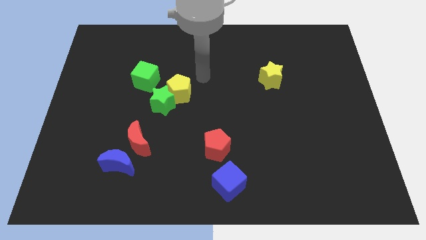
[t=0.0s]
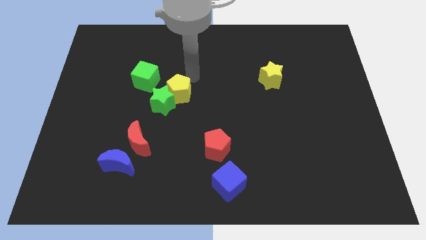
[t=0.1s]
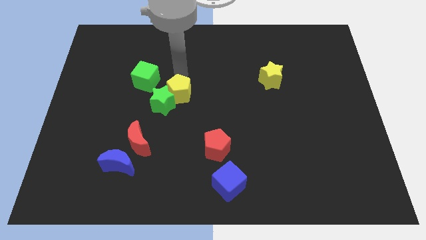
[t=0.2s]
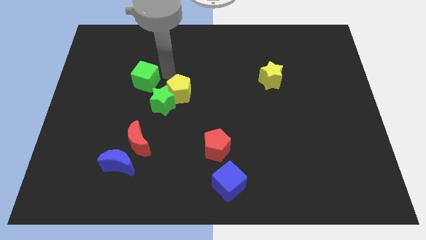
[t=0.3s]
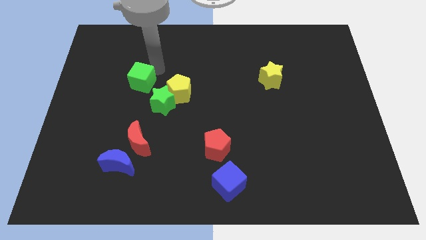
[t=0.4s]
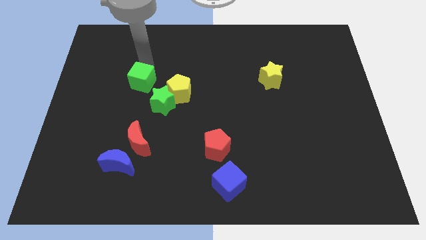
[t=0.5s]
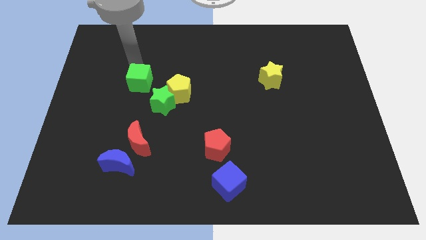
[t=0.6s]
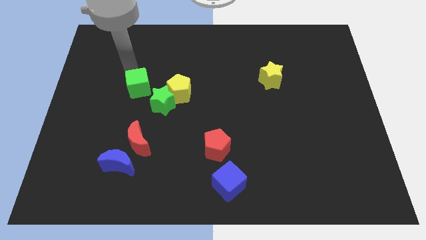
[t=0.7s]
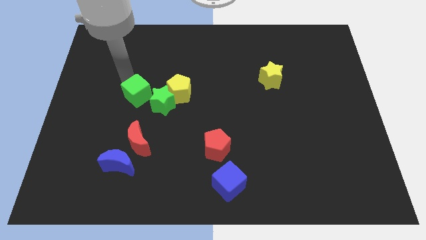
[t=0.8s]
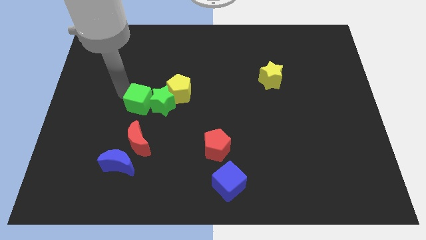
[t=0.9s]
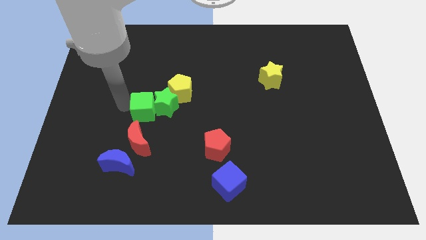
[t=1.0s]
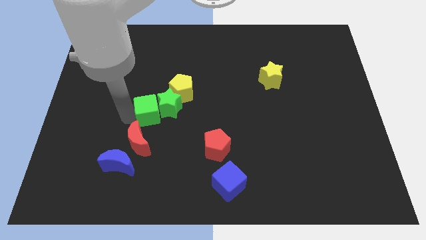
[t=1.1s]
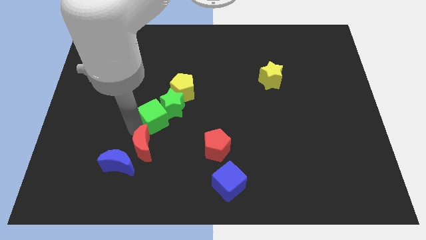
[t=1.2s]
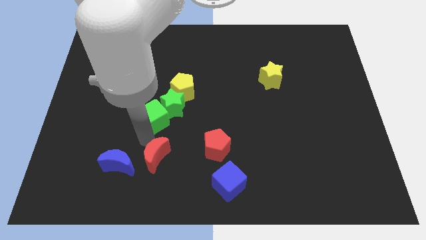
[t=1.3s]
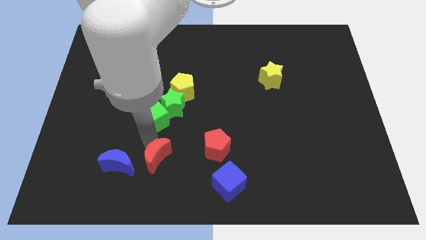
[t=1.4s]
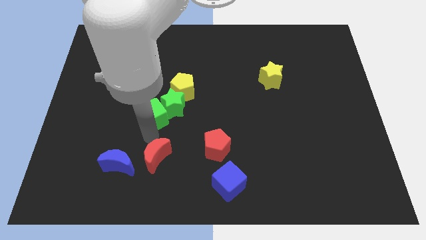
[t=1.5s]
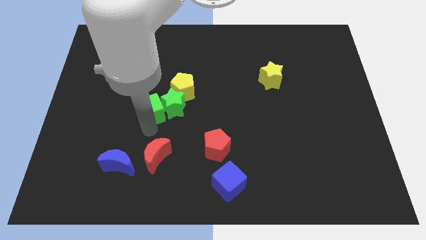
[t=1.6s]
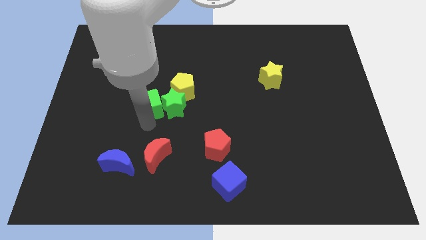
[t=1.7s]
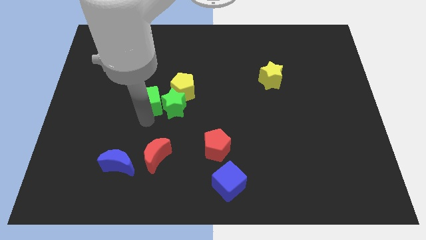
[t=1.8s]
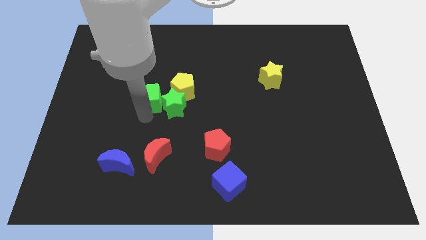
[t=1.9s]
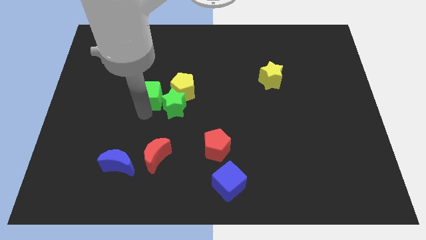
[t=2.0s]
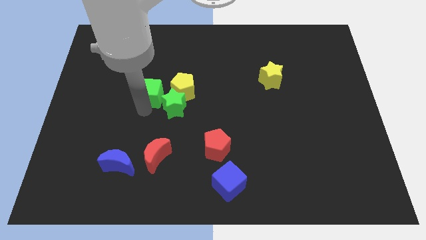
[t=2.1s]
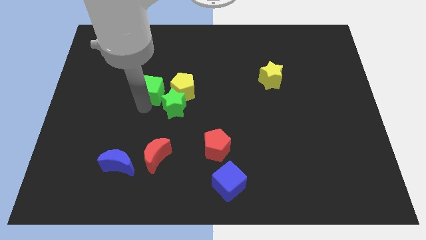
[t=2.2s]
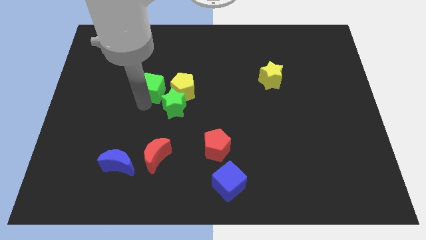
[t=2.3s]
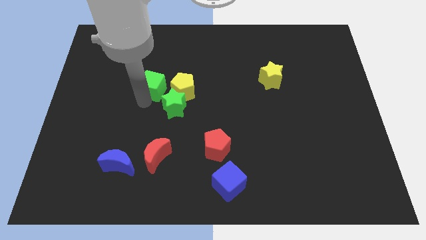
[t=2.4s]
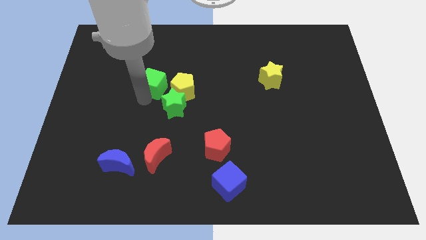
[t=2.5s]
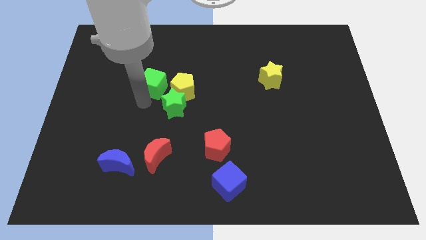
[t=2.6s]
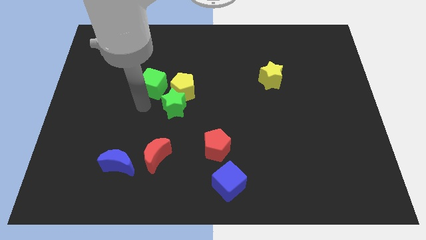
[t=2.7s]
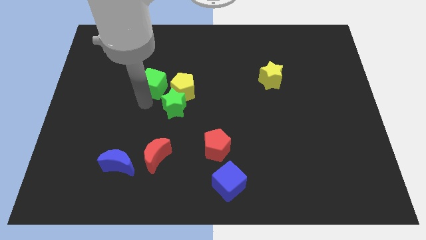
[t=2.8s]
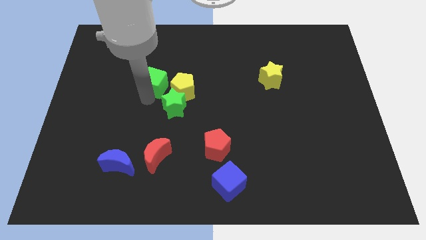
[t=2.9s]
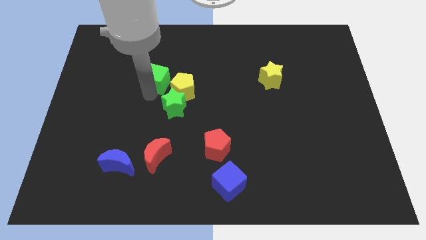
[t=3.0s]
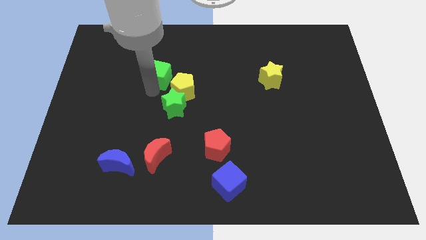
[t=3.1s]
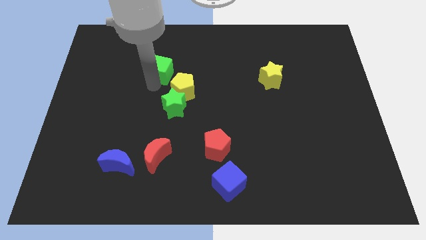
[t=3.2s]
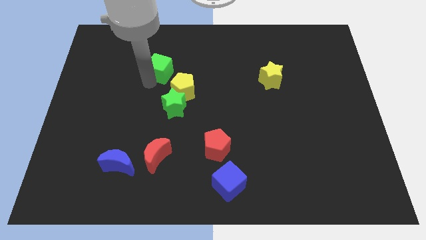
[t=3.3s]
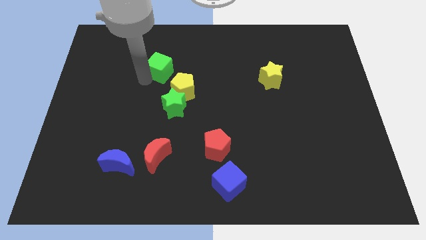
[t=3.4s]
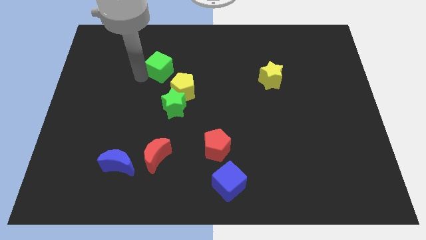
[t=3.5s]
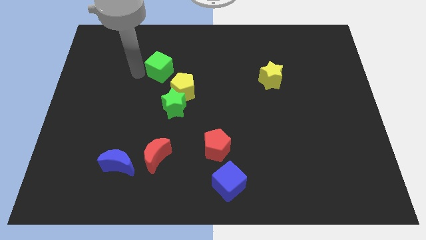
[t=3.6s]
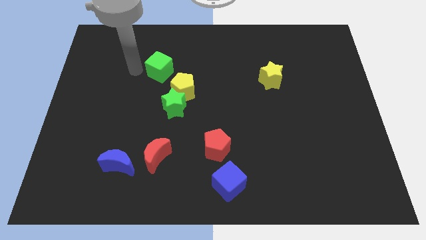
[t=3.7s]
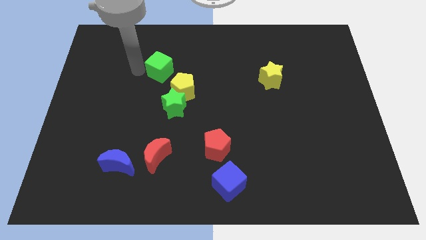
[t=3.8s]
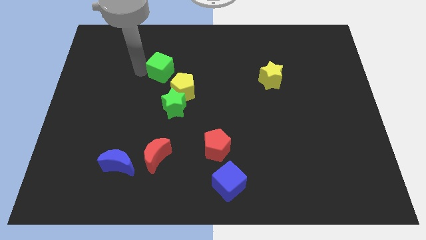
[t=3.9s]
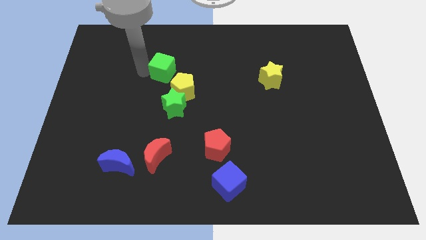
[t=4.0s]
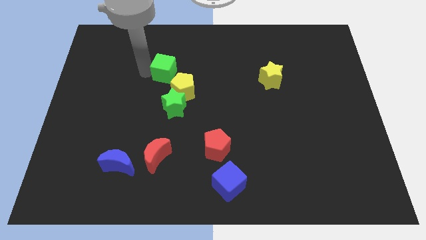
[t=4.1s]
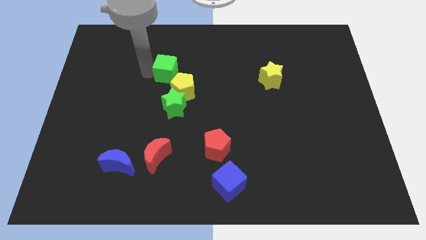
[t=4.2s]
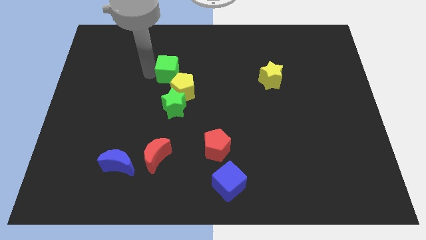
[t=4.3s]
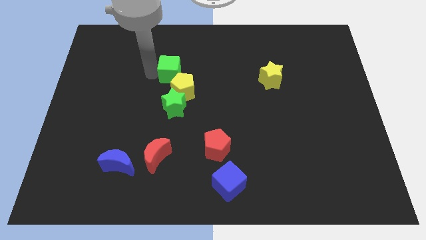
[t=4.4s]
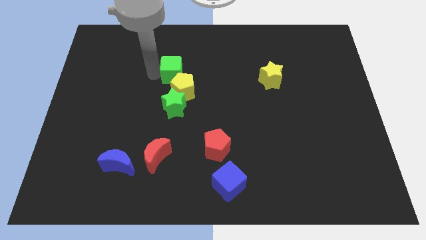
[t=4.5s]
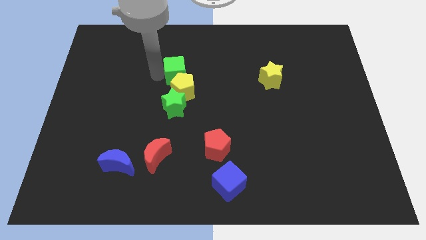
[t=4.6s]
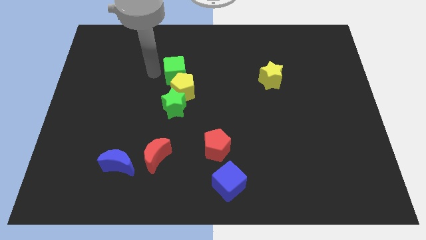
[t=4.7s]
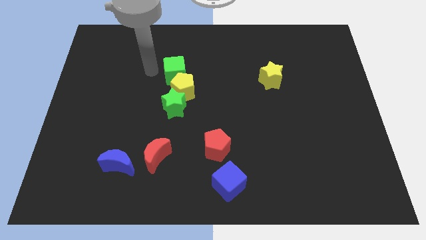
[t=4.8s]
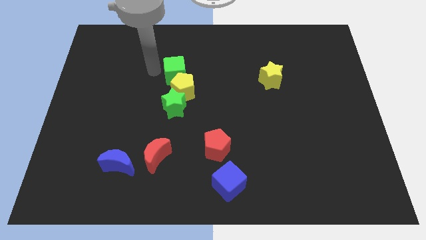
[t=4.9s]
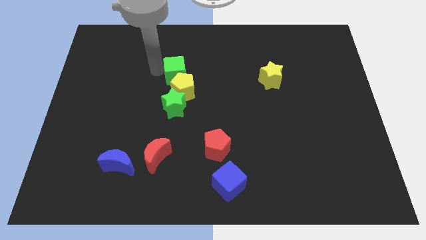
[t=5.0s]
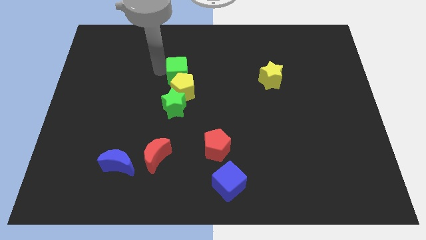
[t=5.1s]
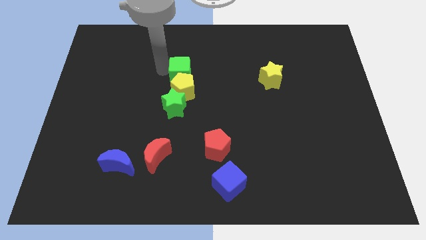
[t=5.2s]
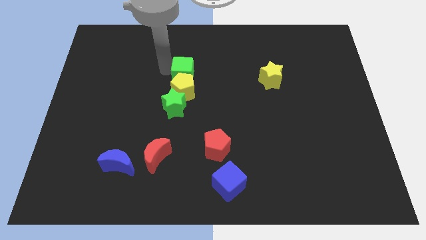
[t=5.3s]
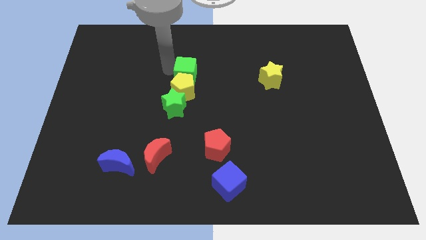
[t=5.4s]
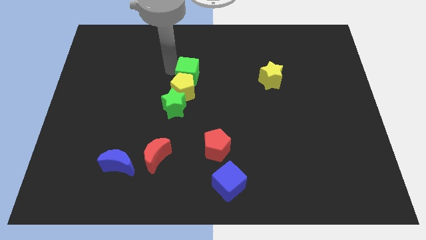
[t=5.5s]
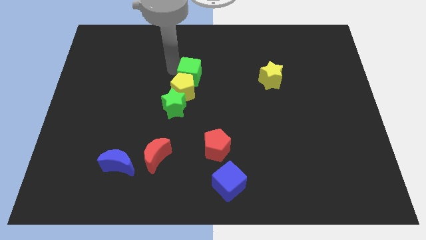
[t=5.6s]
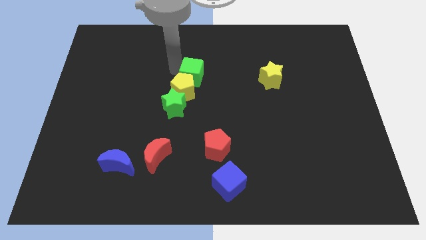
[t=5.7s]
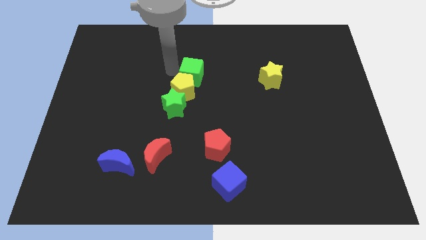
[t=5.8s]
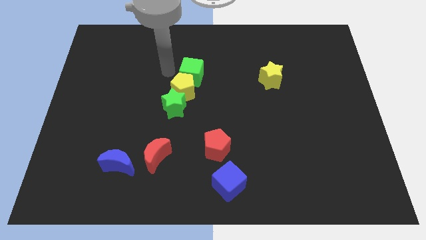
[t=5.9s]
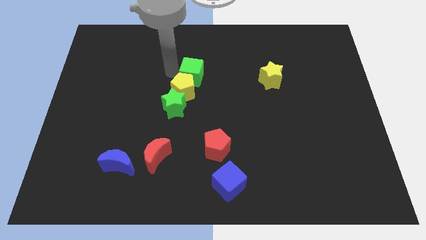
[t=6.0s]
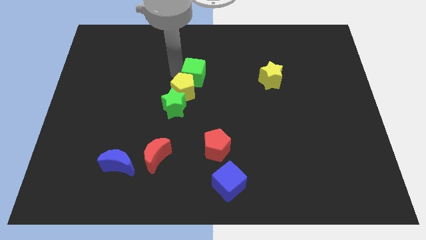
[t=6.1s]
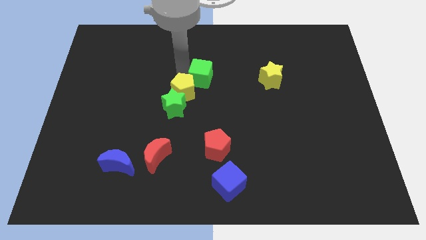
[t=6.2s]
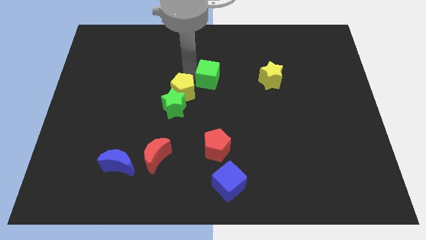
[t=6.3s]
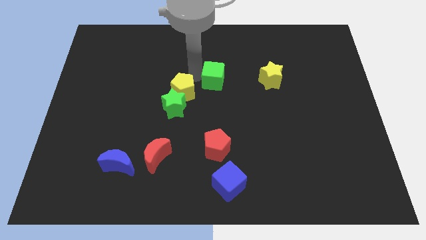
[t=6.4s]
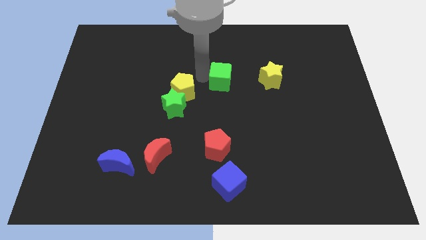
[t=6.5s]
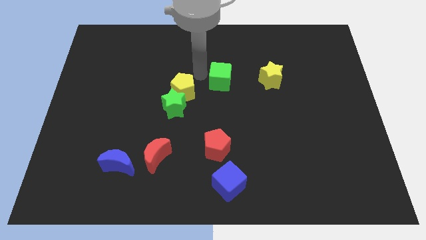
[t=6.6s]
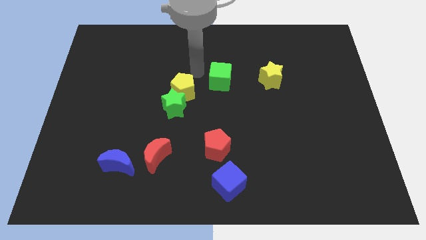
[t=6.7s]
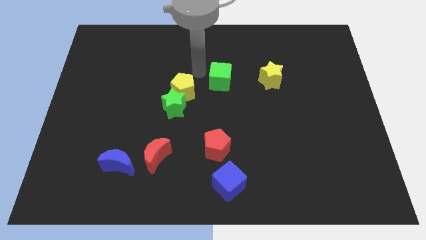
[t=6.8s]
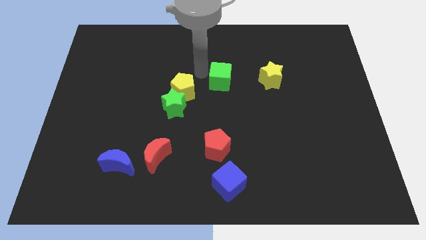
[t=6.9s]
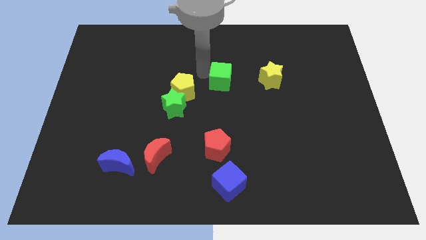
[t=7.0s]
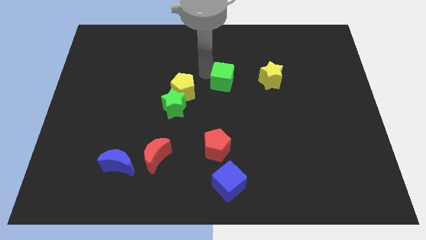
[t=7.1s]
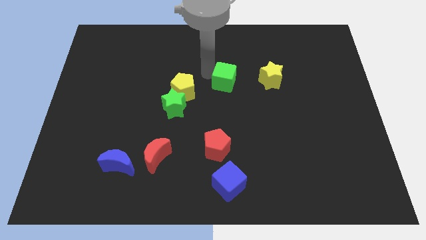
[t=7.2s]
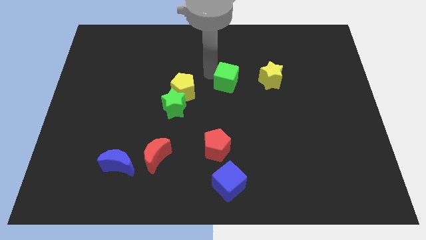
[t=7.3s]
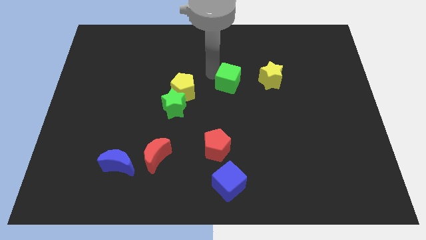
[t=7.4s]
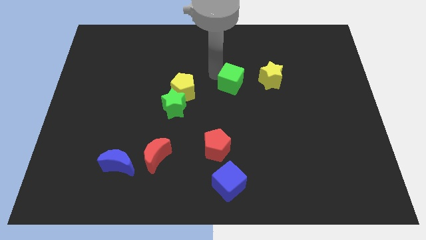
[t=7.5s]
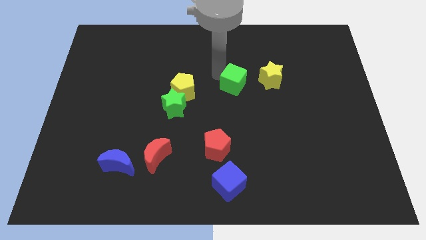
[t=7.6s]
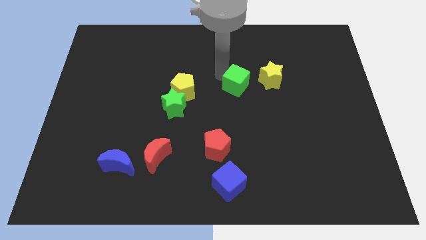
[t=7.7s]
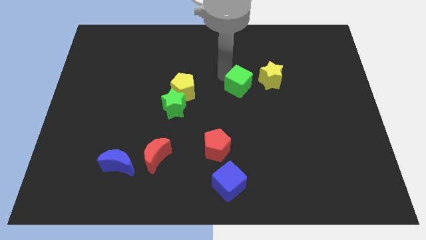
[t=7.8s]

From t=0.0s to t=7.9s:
slide the green cube to the bottom left of the yellow star
